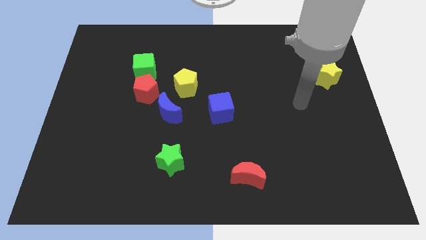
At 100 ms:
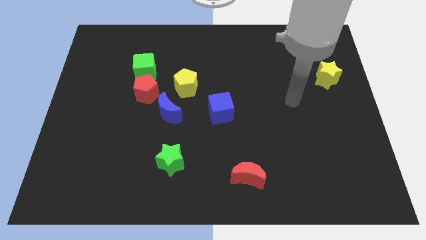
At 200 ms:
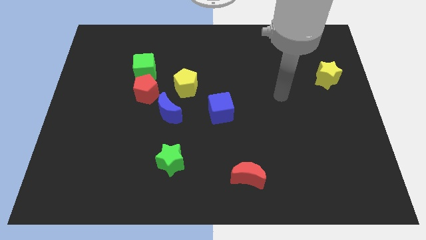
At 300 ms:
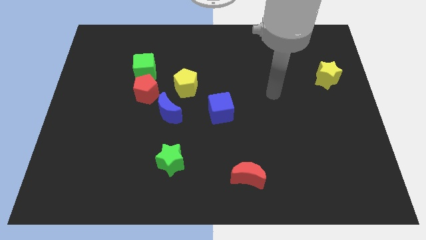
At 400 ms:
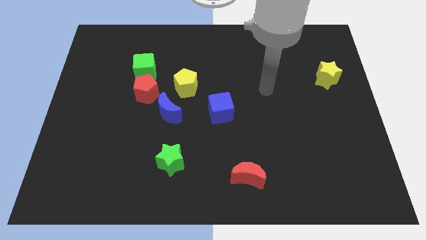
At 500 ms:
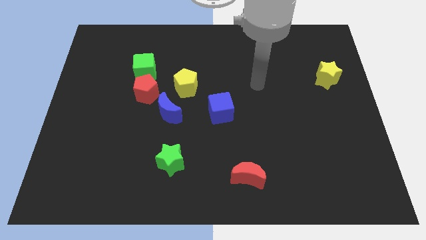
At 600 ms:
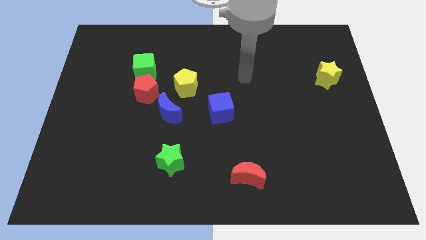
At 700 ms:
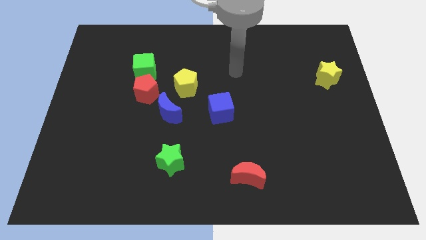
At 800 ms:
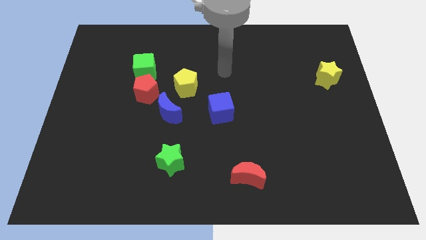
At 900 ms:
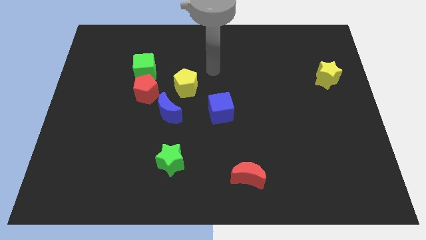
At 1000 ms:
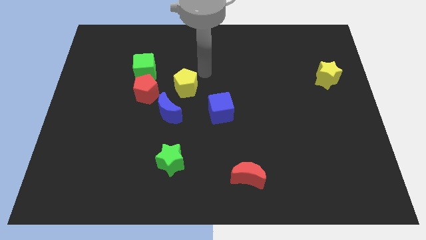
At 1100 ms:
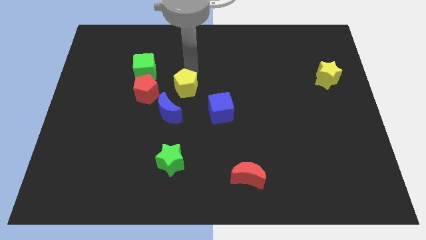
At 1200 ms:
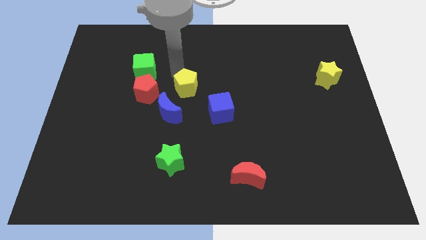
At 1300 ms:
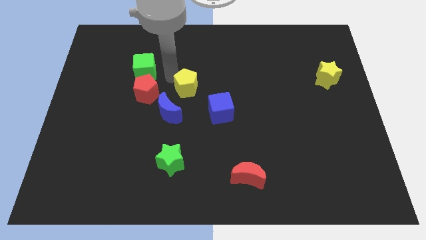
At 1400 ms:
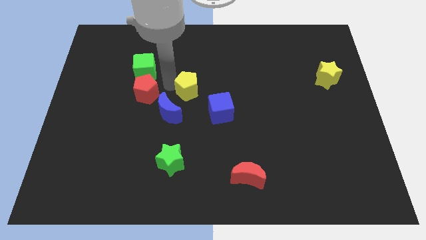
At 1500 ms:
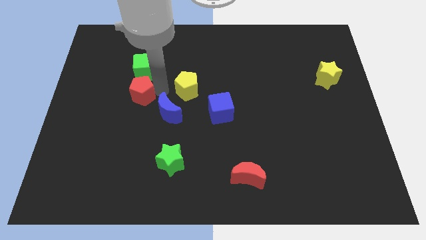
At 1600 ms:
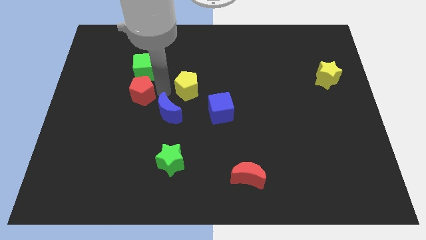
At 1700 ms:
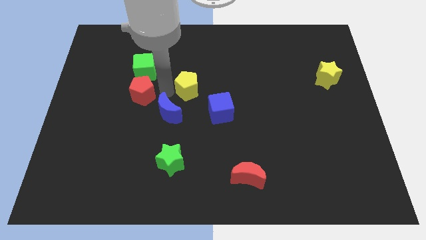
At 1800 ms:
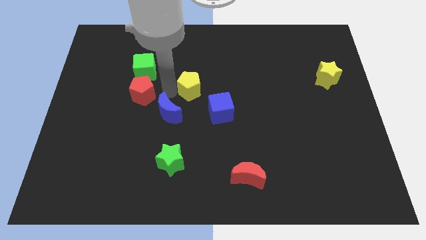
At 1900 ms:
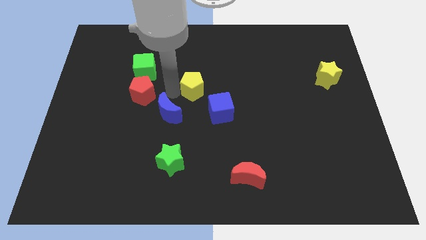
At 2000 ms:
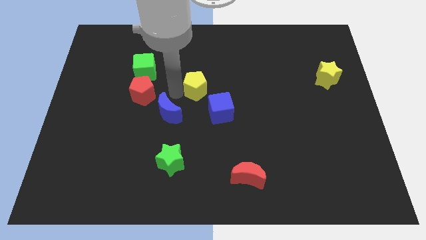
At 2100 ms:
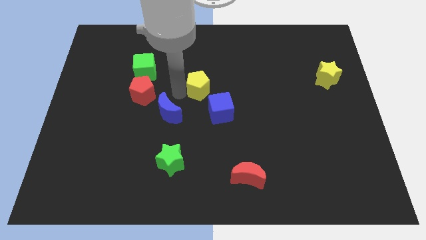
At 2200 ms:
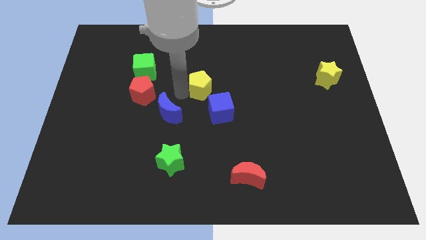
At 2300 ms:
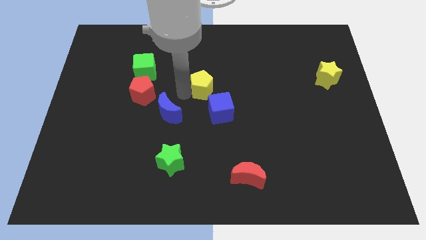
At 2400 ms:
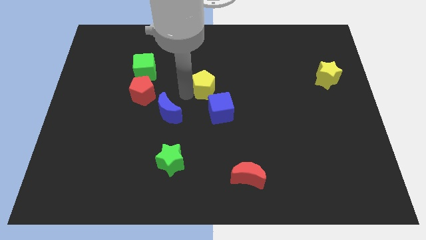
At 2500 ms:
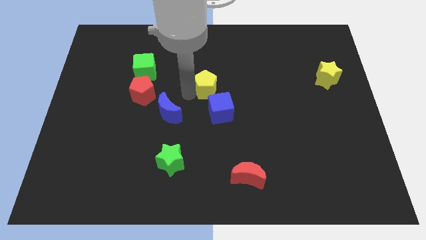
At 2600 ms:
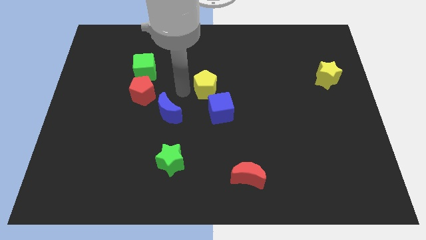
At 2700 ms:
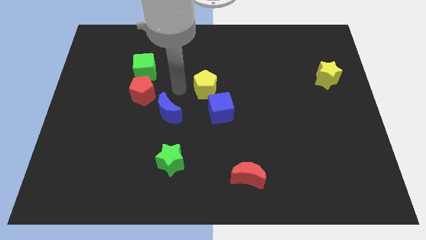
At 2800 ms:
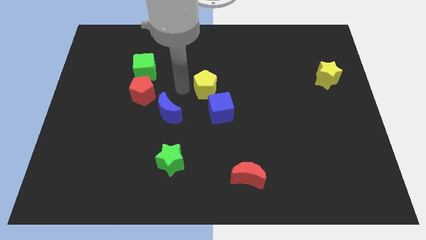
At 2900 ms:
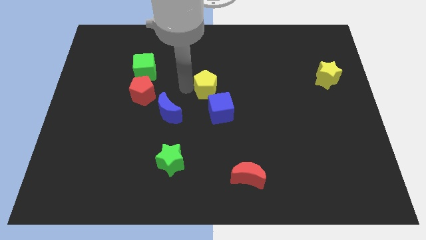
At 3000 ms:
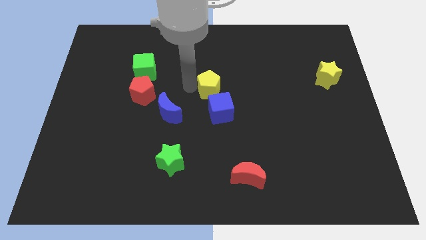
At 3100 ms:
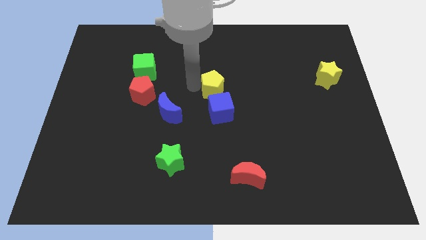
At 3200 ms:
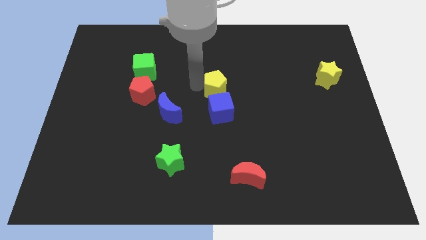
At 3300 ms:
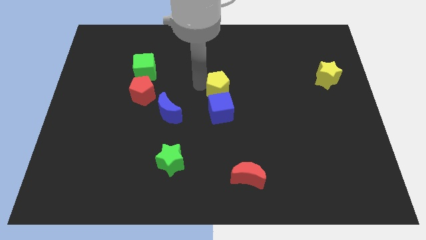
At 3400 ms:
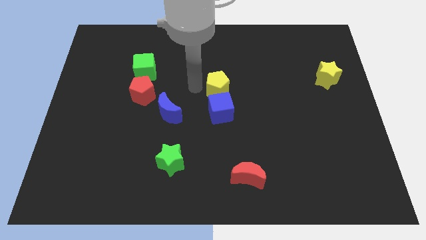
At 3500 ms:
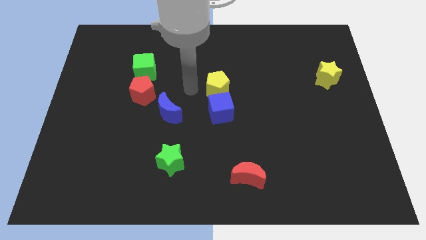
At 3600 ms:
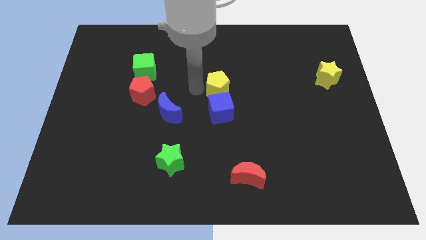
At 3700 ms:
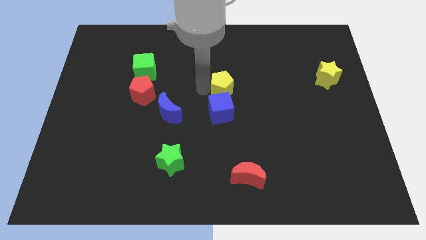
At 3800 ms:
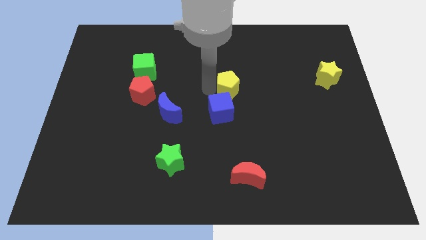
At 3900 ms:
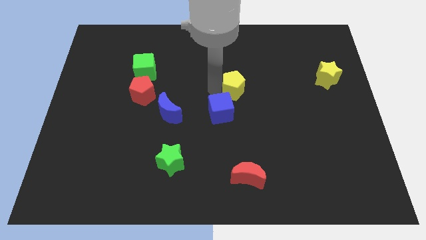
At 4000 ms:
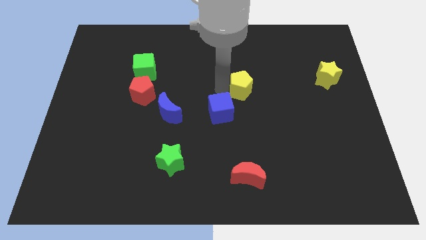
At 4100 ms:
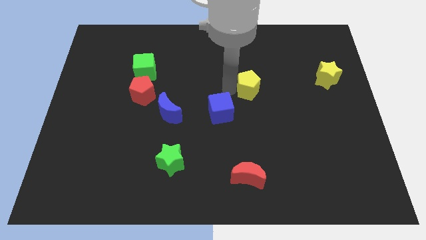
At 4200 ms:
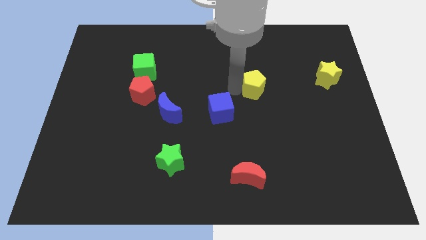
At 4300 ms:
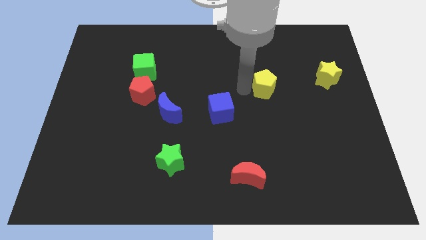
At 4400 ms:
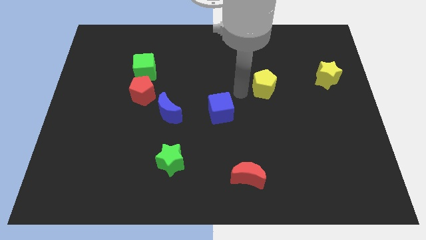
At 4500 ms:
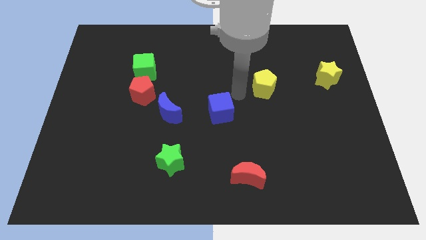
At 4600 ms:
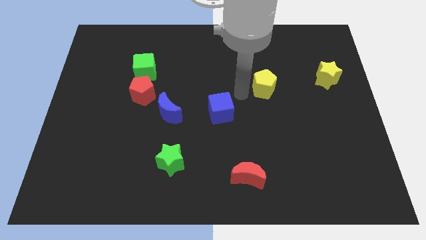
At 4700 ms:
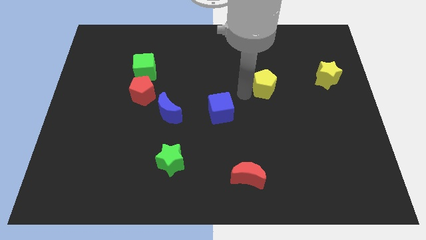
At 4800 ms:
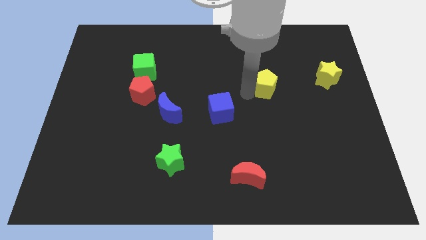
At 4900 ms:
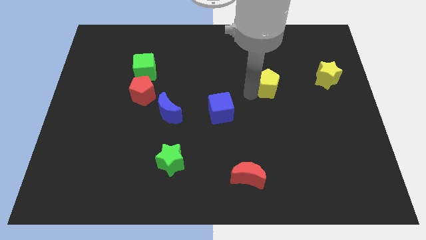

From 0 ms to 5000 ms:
slide the yellow pentagon to the right

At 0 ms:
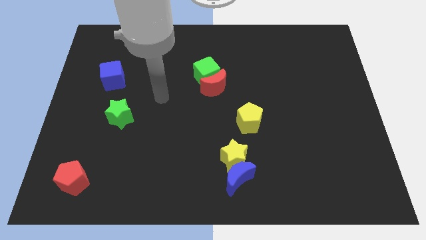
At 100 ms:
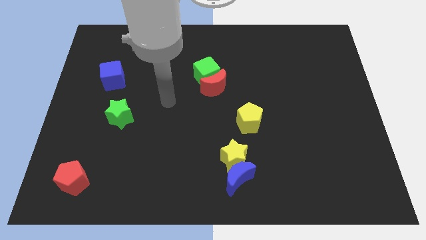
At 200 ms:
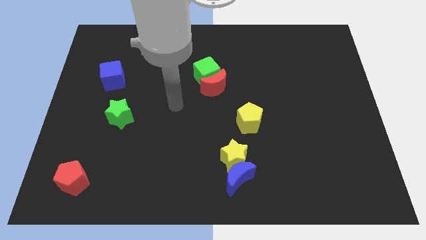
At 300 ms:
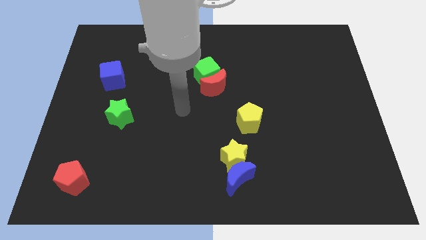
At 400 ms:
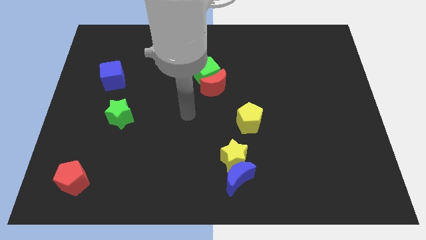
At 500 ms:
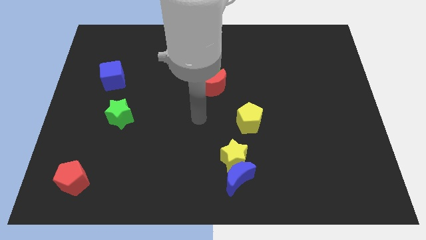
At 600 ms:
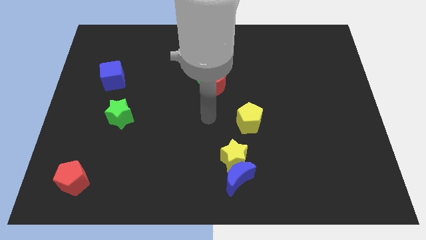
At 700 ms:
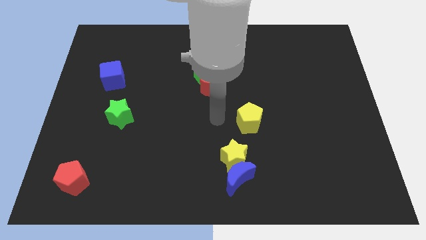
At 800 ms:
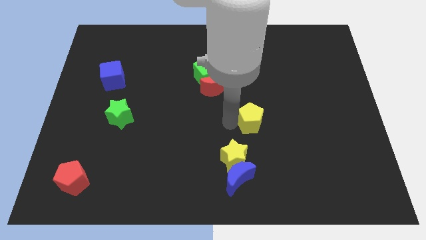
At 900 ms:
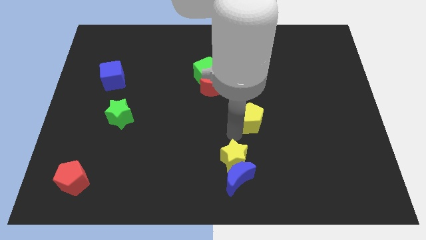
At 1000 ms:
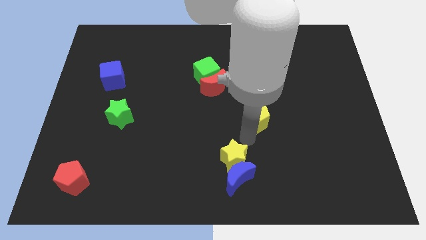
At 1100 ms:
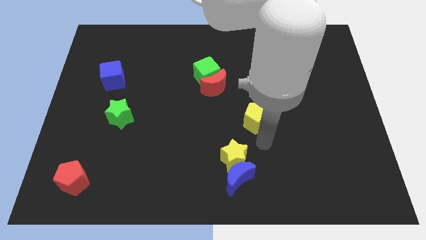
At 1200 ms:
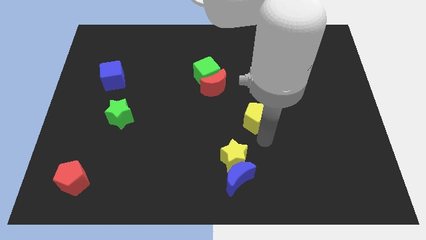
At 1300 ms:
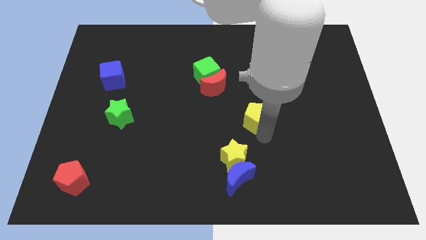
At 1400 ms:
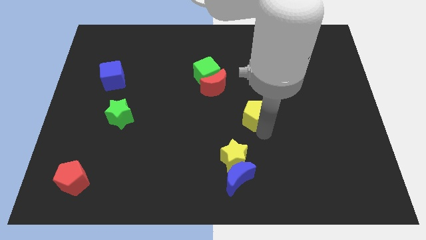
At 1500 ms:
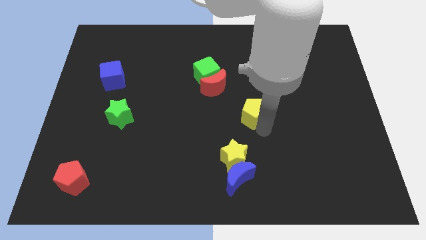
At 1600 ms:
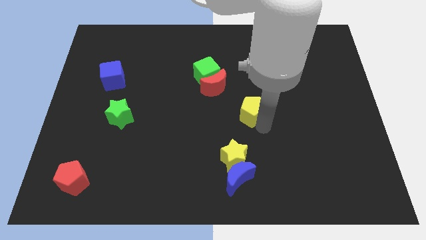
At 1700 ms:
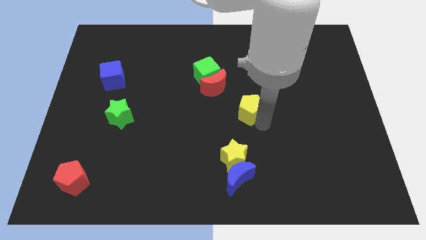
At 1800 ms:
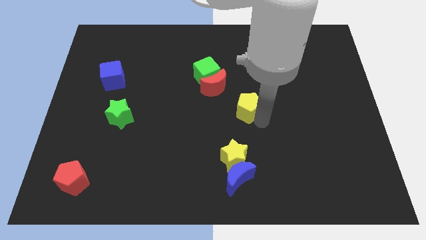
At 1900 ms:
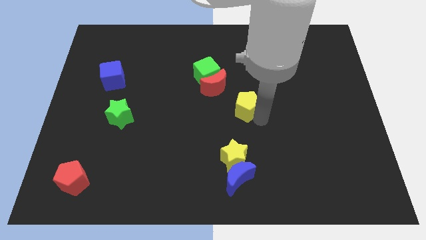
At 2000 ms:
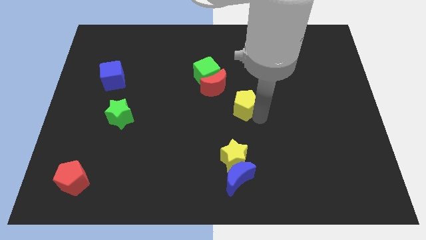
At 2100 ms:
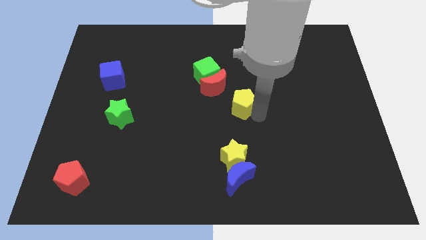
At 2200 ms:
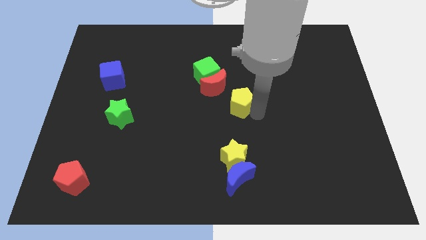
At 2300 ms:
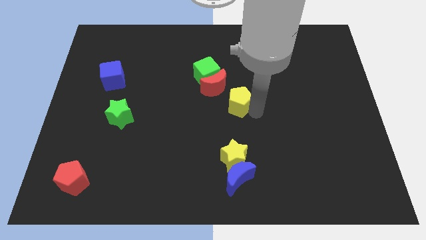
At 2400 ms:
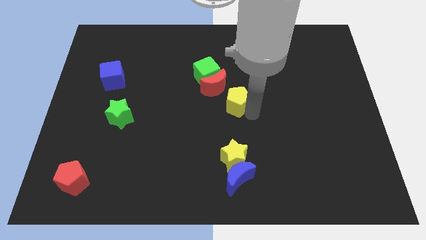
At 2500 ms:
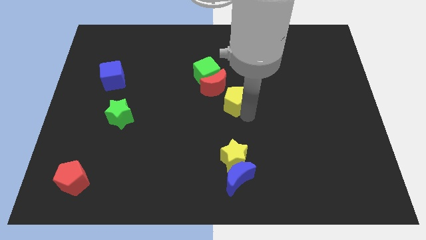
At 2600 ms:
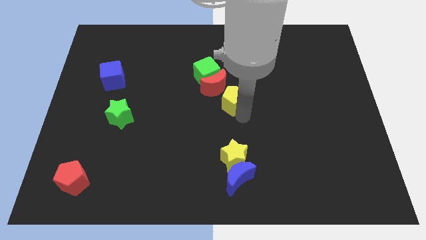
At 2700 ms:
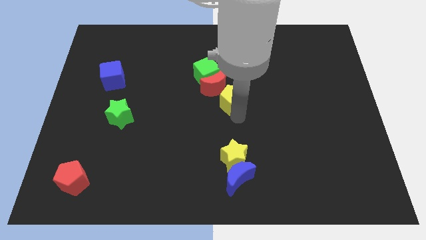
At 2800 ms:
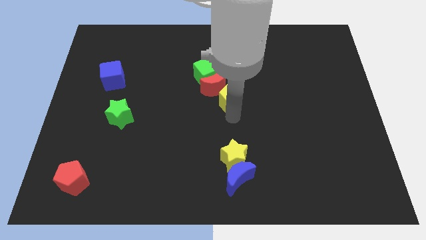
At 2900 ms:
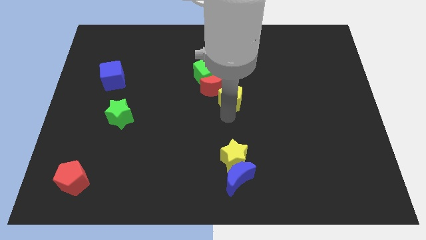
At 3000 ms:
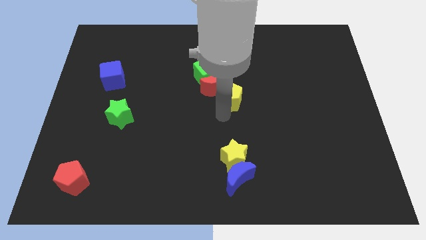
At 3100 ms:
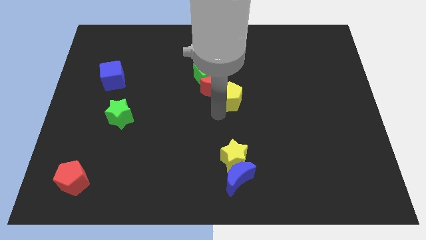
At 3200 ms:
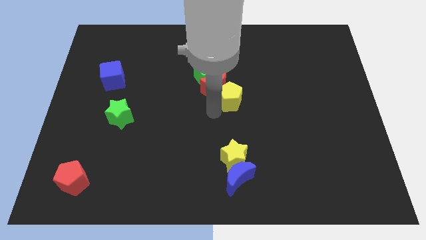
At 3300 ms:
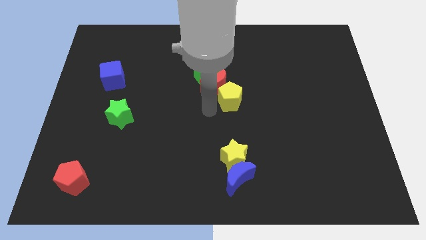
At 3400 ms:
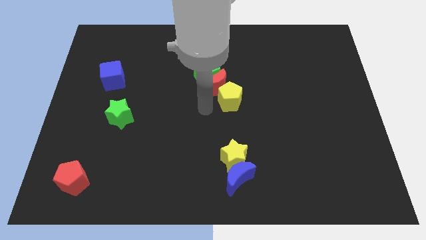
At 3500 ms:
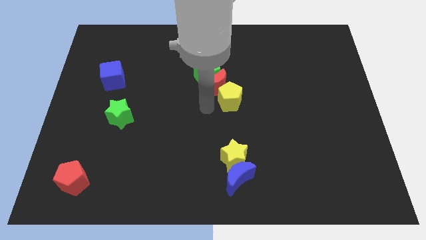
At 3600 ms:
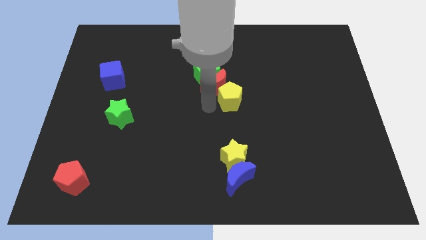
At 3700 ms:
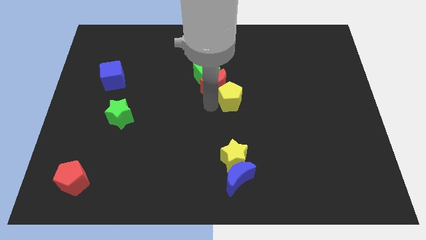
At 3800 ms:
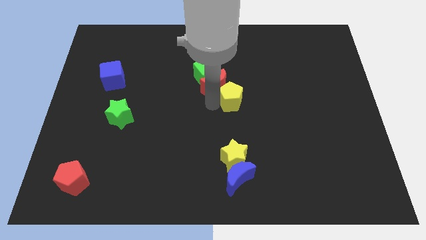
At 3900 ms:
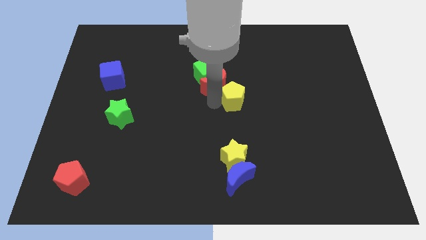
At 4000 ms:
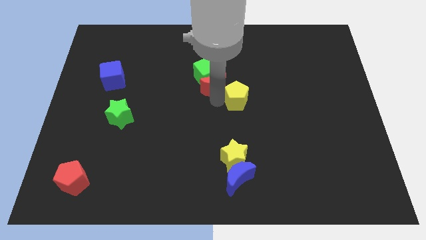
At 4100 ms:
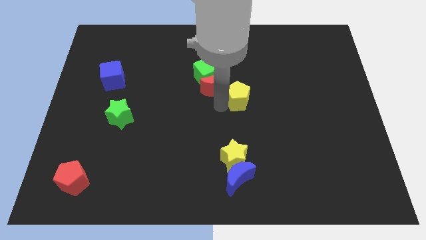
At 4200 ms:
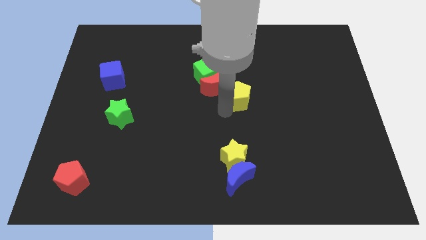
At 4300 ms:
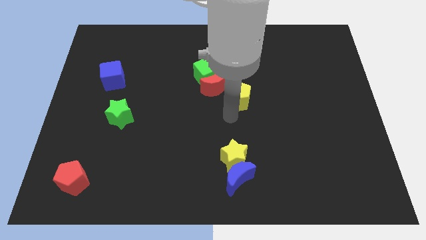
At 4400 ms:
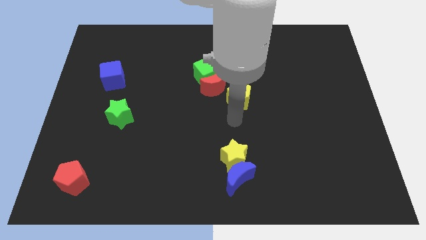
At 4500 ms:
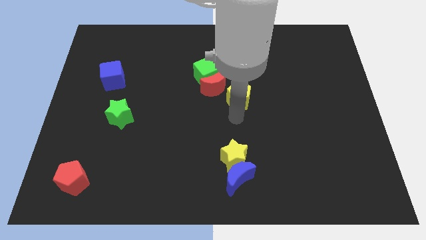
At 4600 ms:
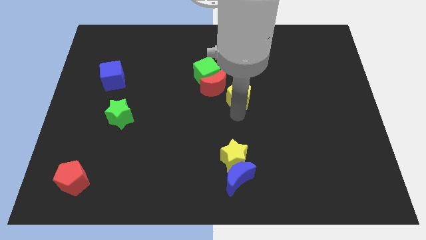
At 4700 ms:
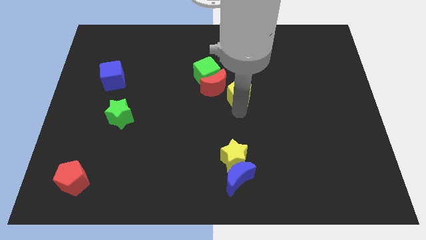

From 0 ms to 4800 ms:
slightly slide the yellow pentagon up
